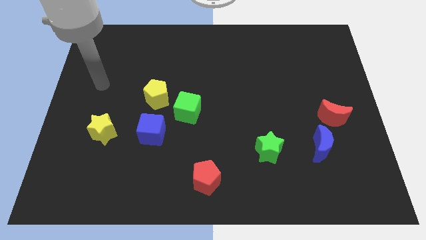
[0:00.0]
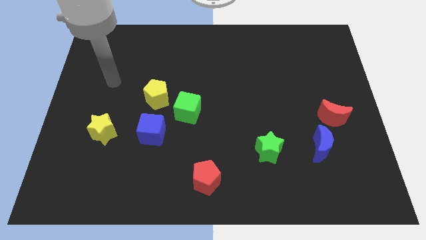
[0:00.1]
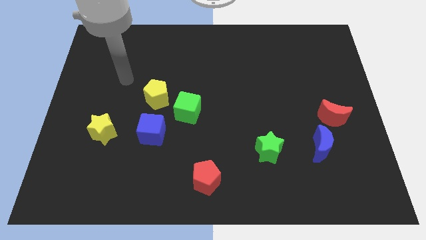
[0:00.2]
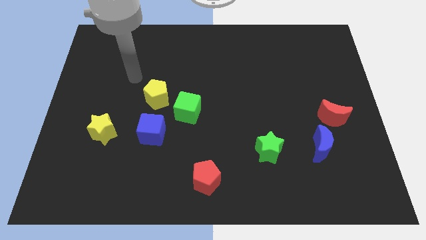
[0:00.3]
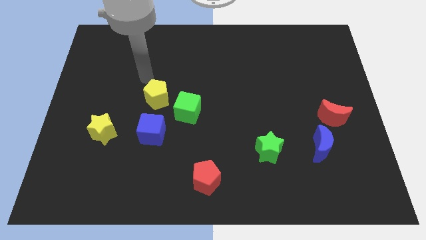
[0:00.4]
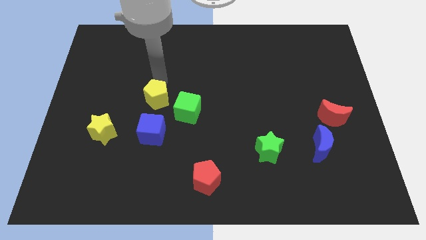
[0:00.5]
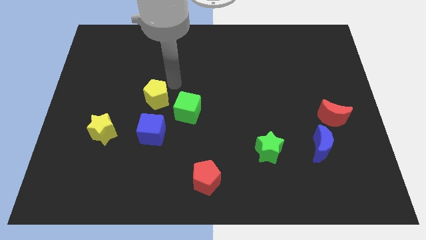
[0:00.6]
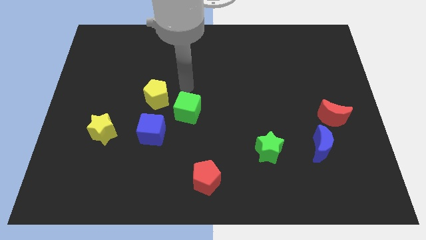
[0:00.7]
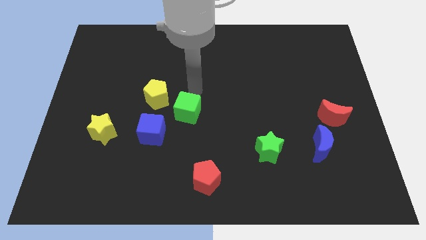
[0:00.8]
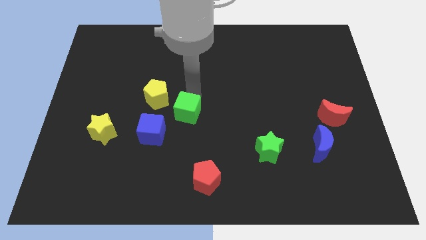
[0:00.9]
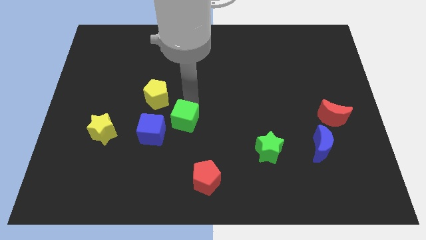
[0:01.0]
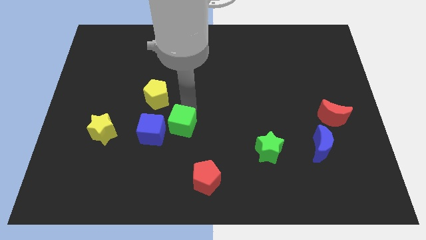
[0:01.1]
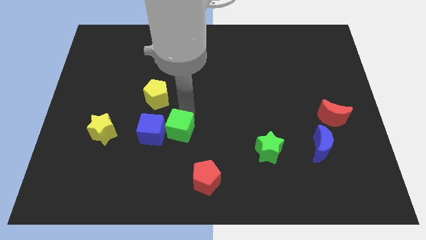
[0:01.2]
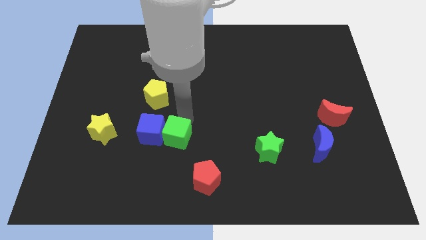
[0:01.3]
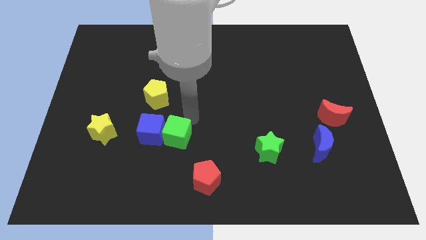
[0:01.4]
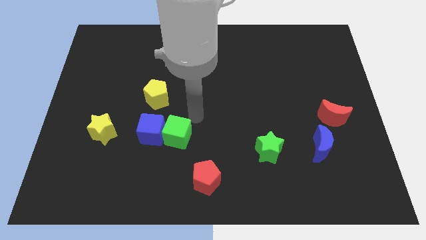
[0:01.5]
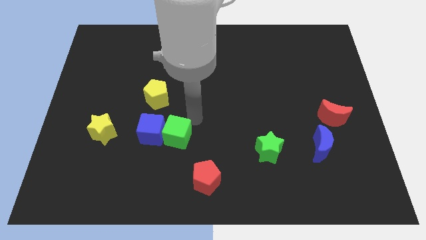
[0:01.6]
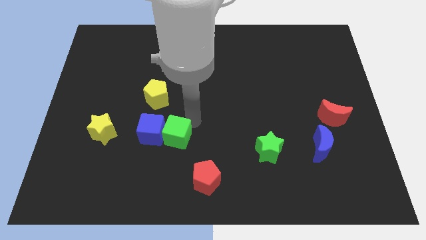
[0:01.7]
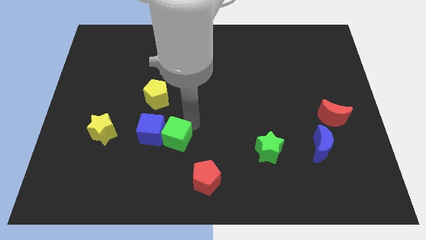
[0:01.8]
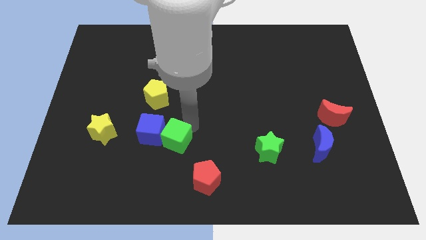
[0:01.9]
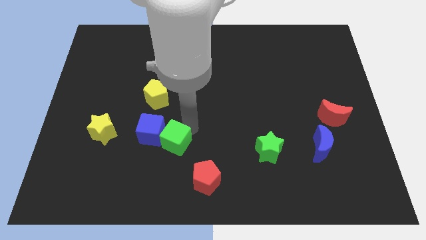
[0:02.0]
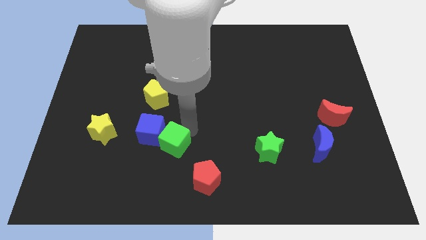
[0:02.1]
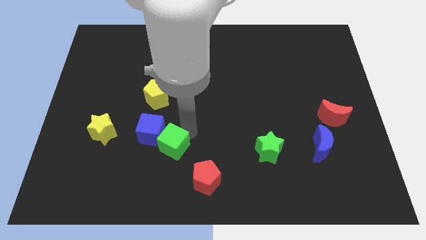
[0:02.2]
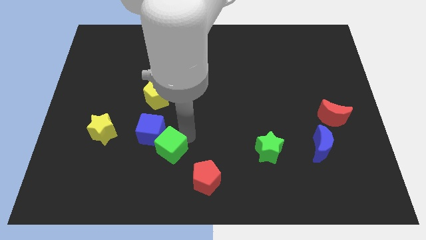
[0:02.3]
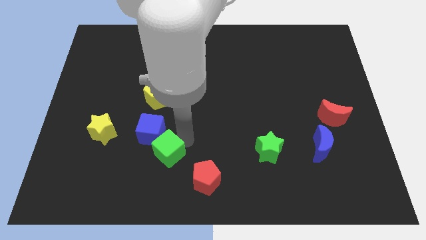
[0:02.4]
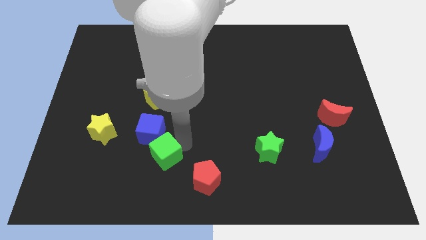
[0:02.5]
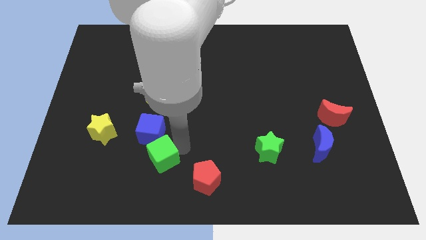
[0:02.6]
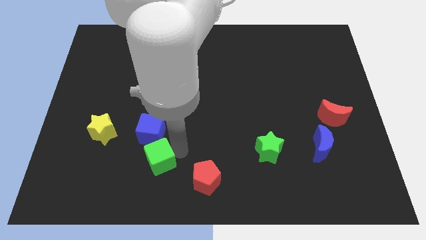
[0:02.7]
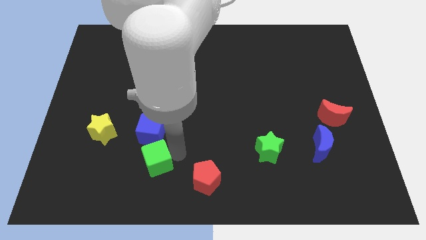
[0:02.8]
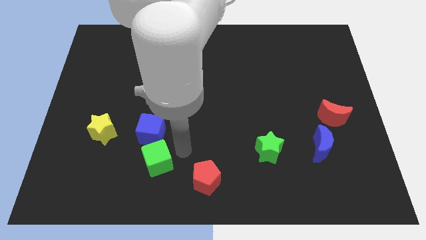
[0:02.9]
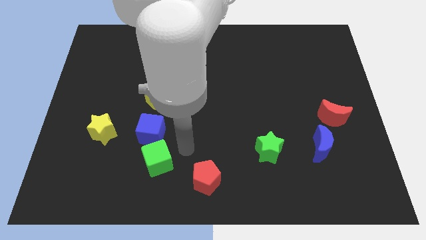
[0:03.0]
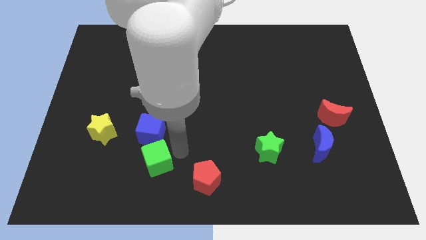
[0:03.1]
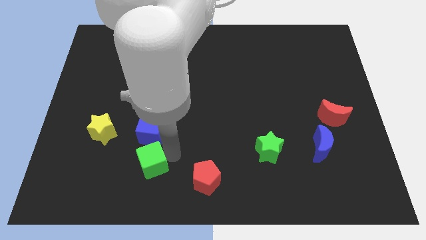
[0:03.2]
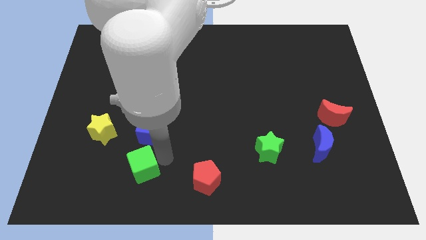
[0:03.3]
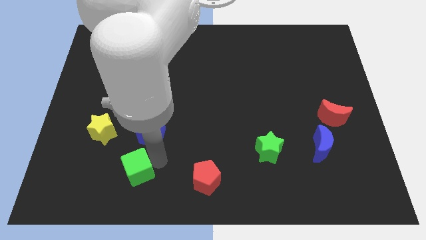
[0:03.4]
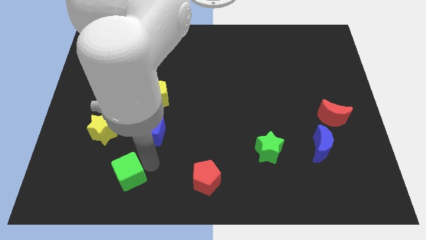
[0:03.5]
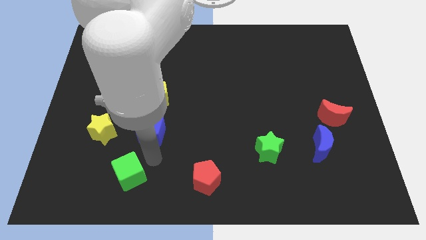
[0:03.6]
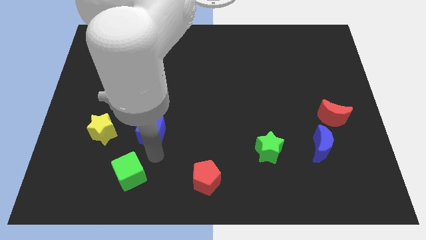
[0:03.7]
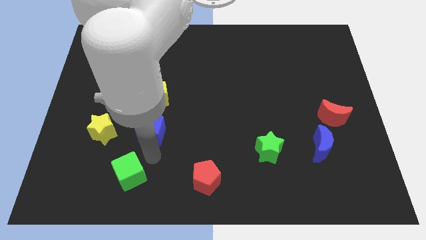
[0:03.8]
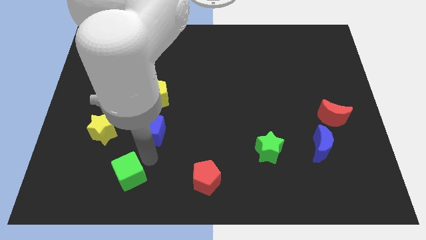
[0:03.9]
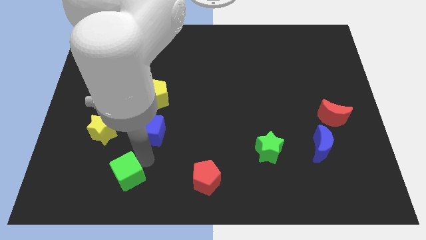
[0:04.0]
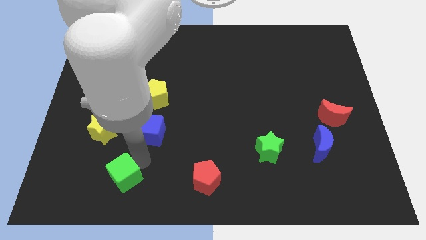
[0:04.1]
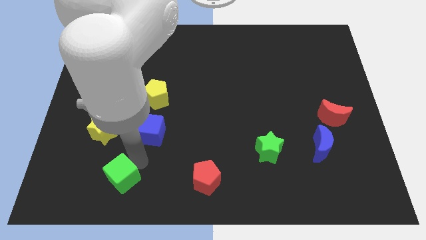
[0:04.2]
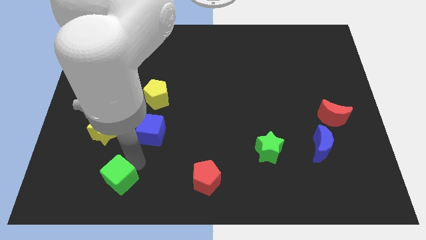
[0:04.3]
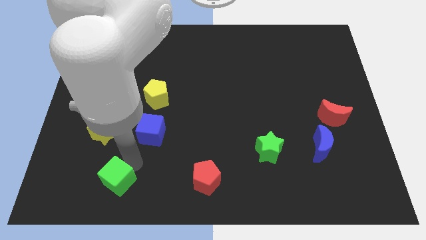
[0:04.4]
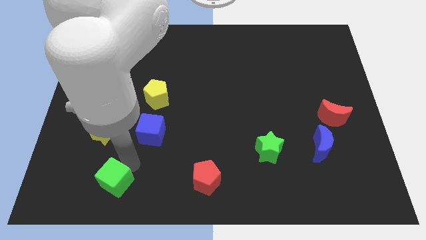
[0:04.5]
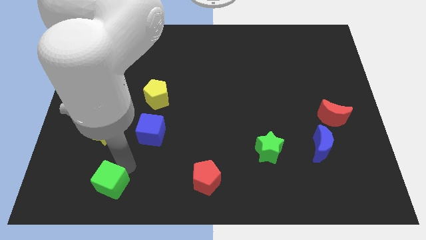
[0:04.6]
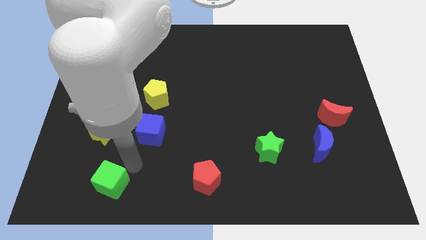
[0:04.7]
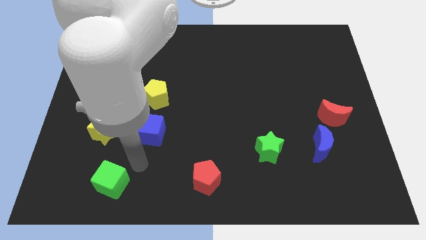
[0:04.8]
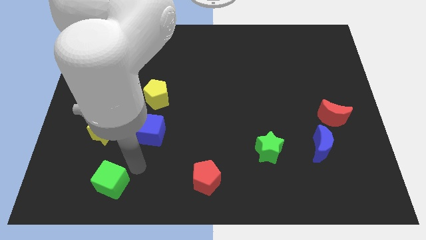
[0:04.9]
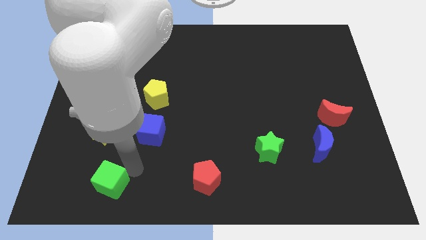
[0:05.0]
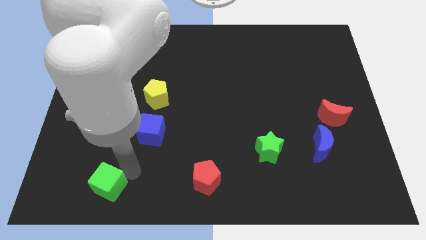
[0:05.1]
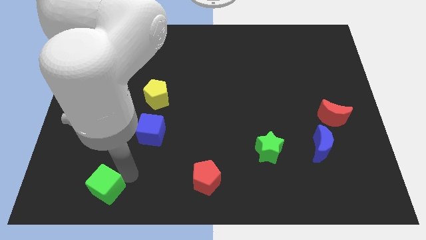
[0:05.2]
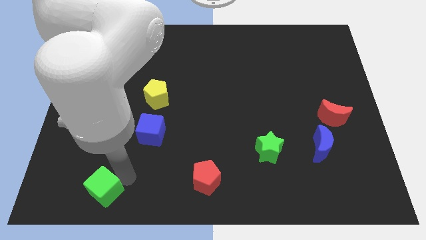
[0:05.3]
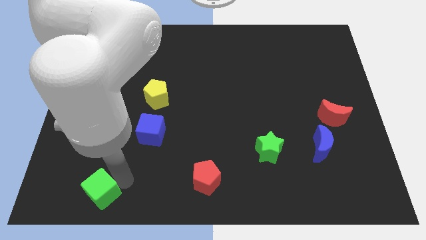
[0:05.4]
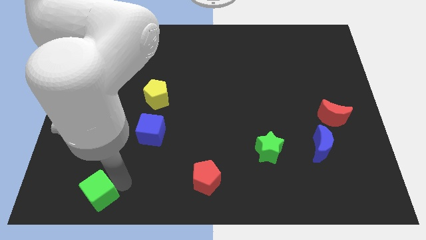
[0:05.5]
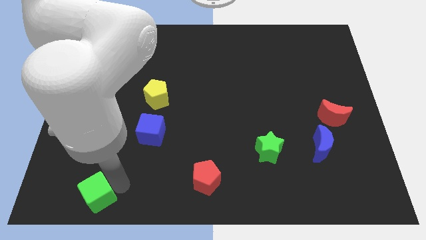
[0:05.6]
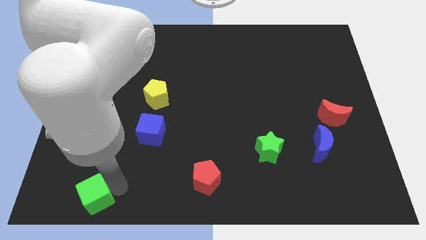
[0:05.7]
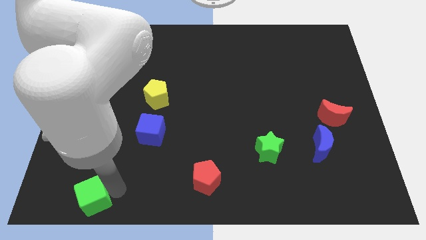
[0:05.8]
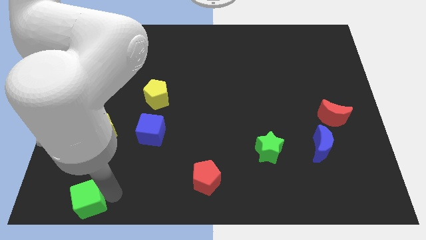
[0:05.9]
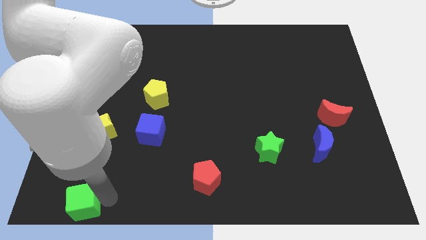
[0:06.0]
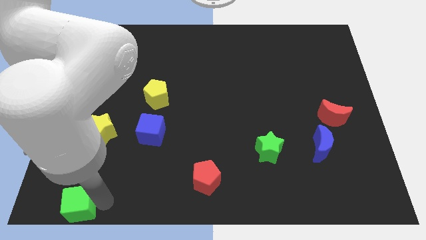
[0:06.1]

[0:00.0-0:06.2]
slide the green cube to the bottom left
